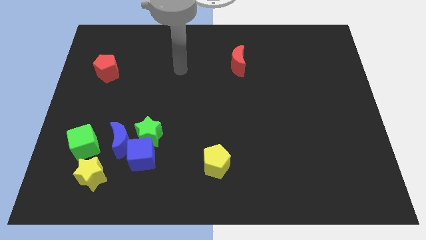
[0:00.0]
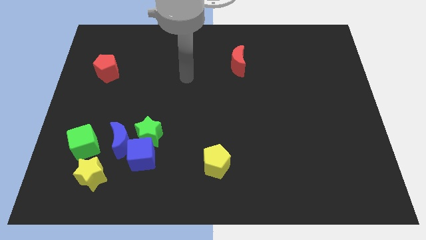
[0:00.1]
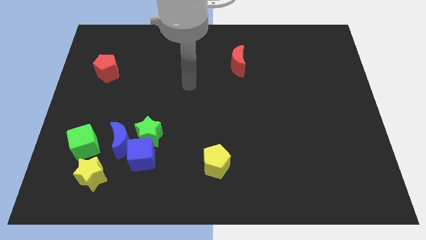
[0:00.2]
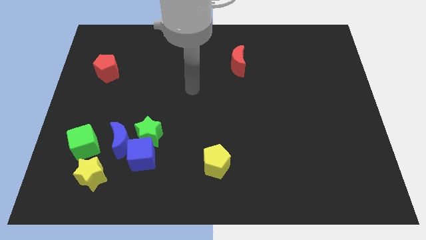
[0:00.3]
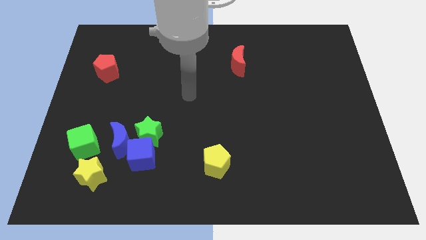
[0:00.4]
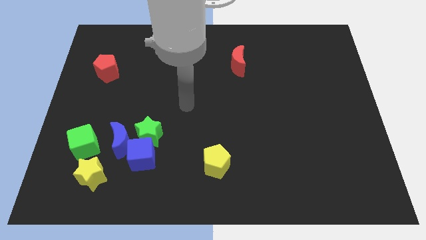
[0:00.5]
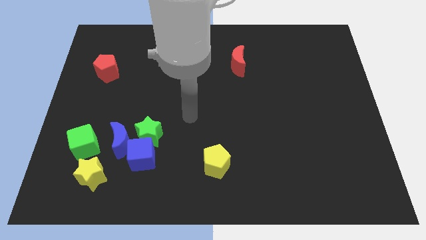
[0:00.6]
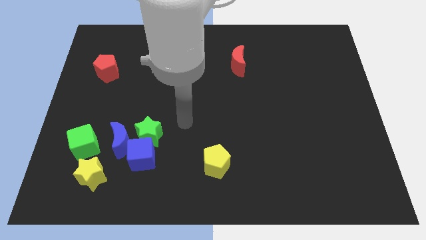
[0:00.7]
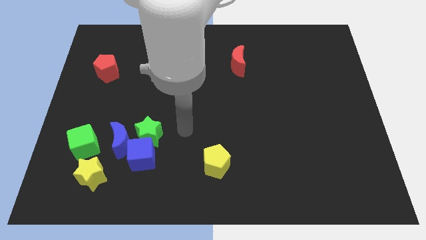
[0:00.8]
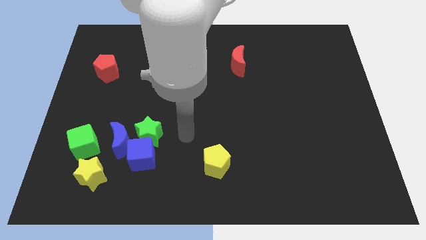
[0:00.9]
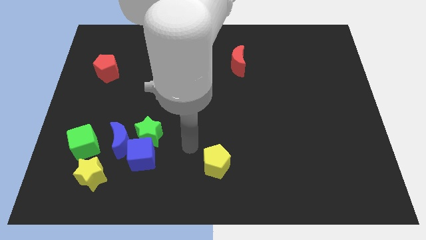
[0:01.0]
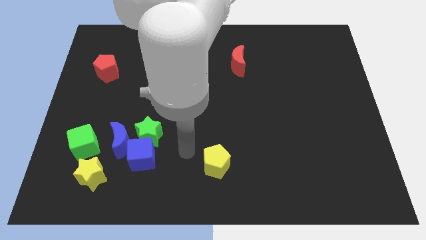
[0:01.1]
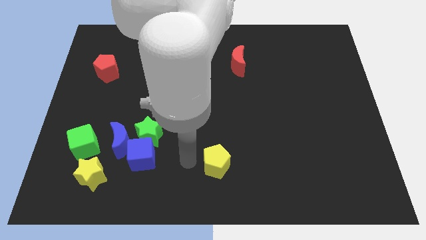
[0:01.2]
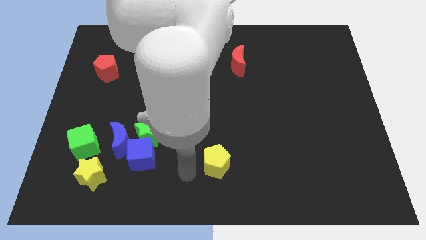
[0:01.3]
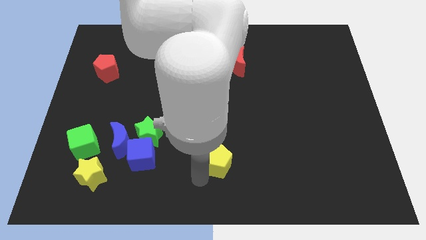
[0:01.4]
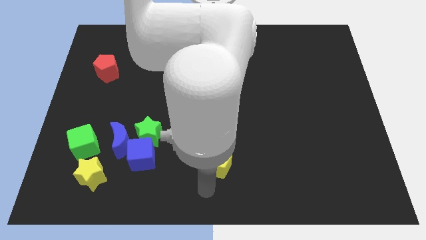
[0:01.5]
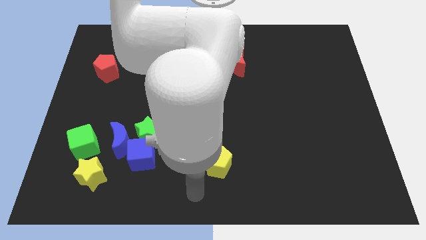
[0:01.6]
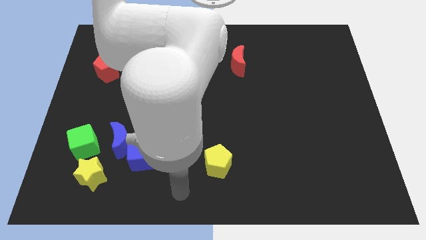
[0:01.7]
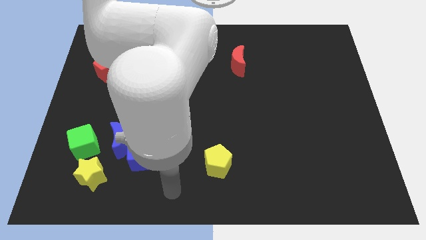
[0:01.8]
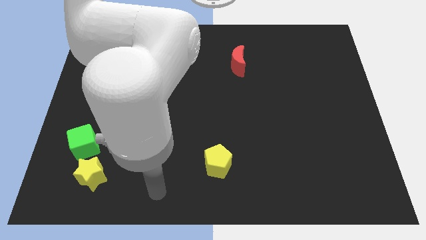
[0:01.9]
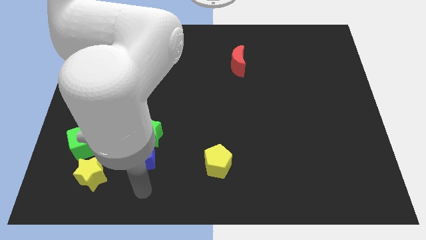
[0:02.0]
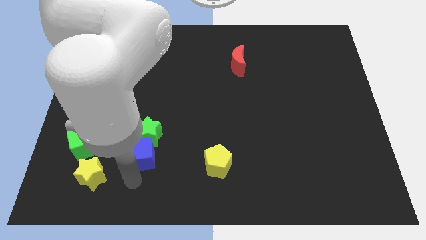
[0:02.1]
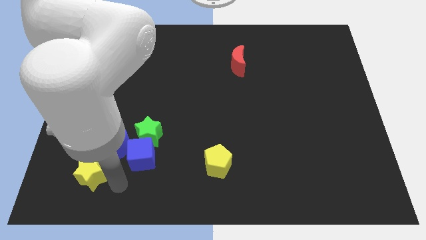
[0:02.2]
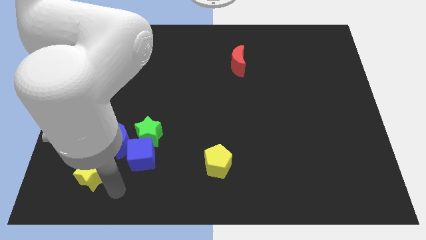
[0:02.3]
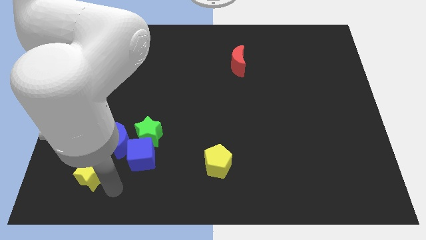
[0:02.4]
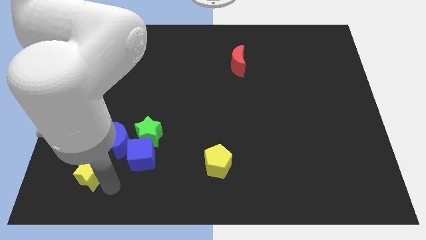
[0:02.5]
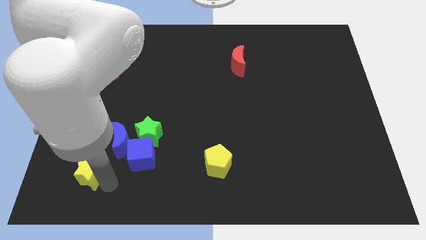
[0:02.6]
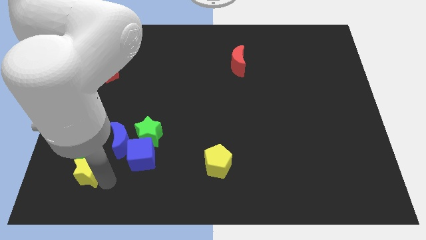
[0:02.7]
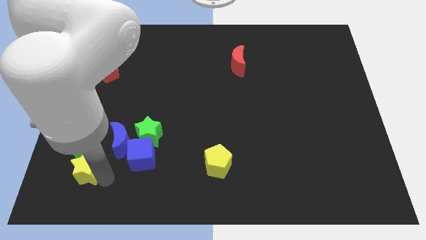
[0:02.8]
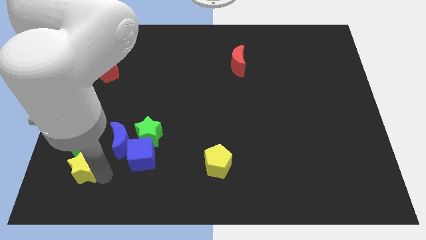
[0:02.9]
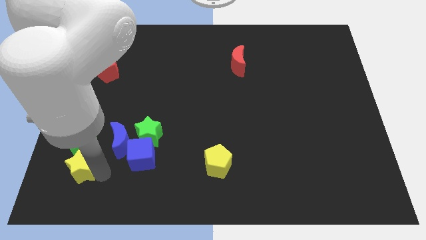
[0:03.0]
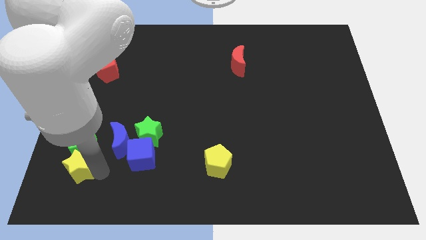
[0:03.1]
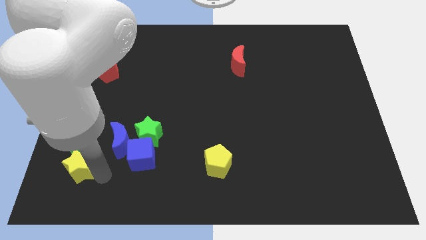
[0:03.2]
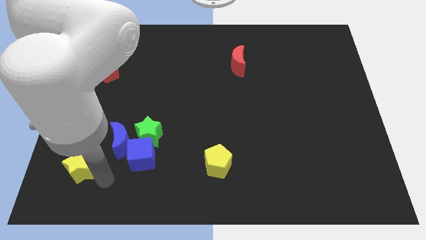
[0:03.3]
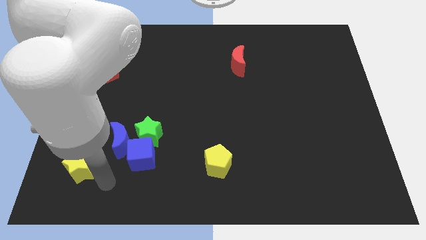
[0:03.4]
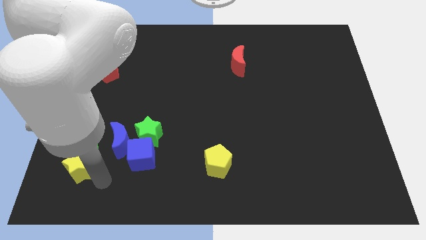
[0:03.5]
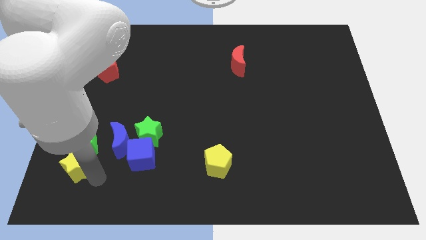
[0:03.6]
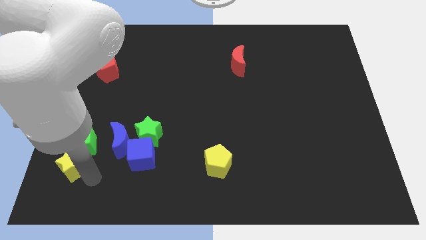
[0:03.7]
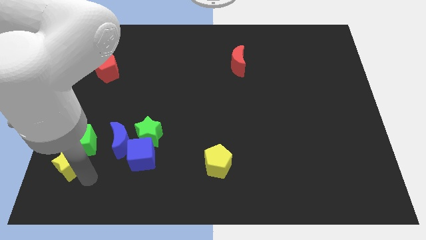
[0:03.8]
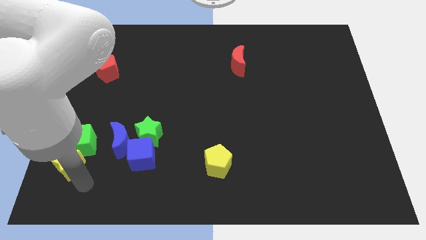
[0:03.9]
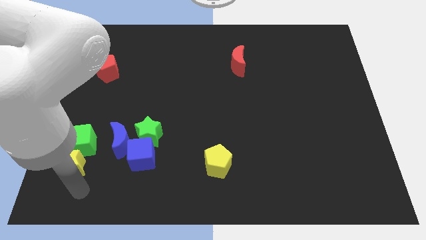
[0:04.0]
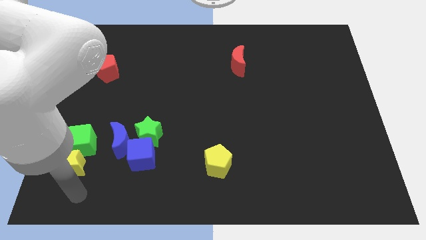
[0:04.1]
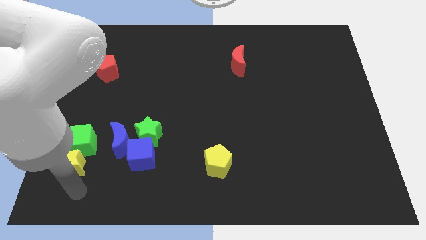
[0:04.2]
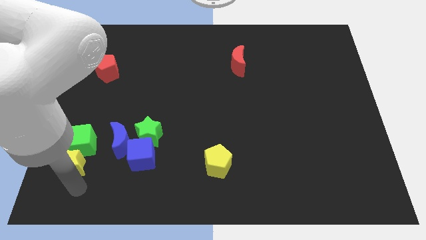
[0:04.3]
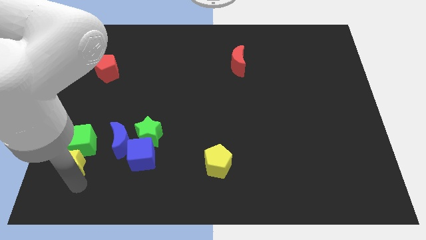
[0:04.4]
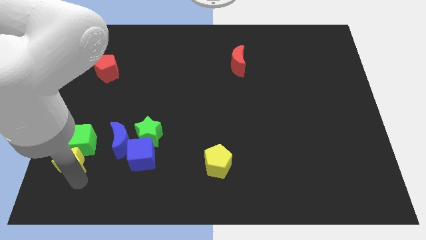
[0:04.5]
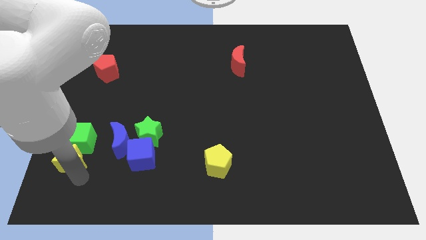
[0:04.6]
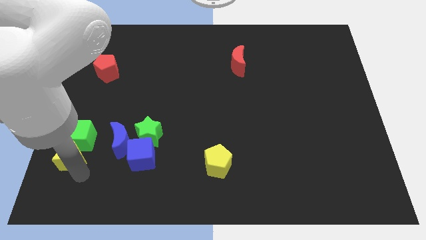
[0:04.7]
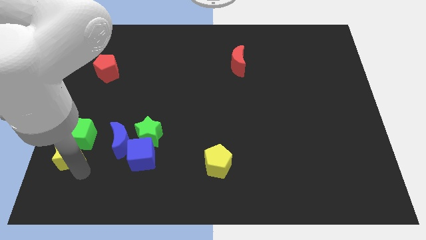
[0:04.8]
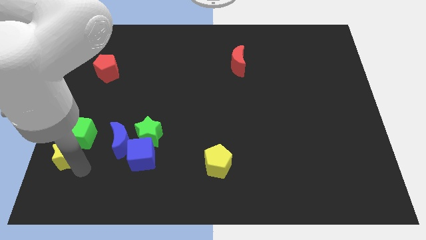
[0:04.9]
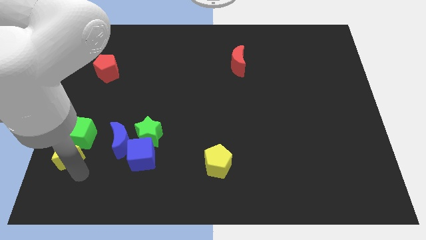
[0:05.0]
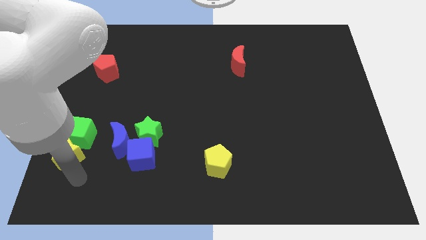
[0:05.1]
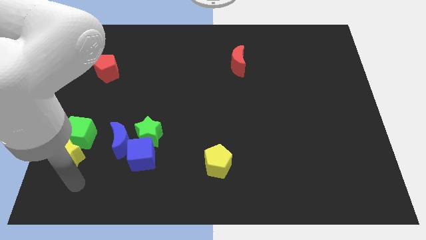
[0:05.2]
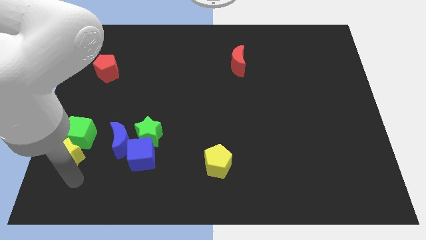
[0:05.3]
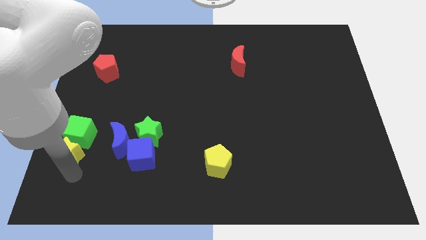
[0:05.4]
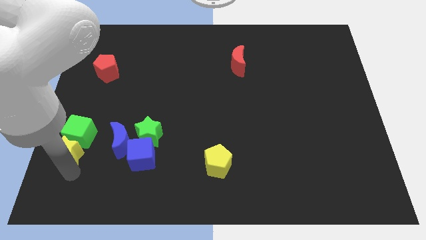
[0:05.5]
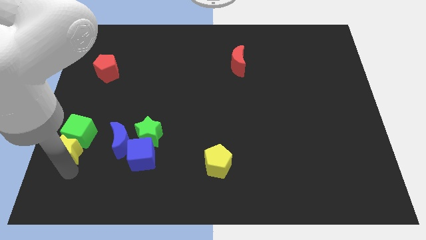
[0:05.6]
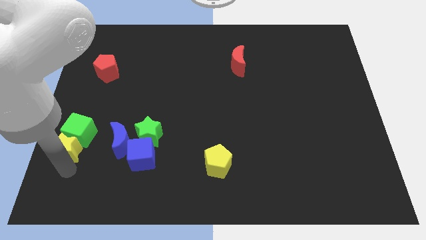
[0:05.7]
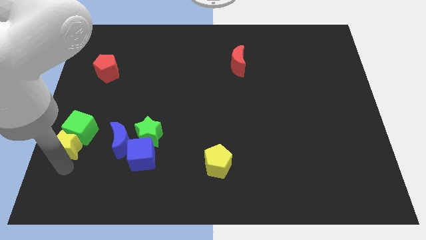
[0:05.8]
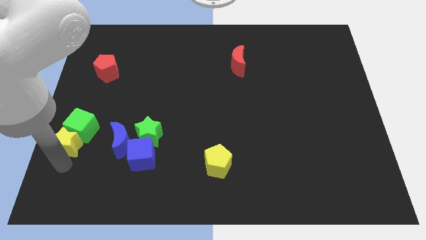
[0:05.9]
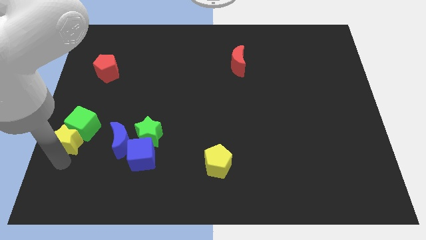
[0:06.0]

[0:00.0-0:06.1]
put the yellow star to the center left

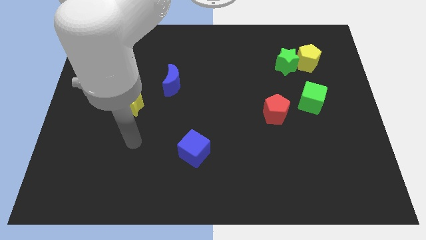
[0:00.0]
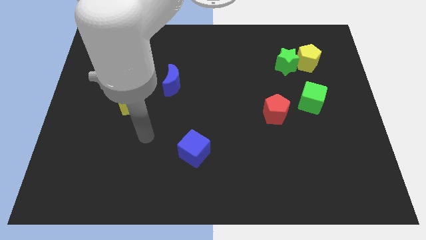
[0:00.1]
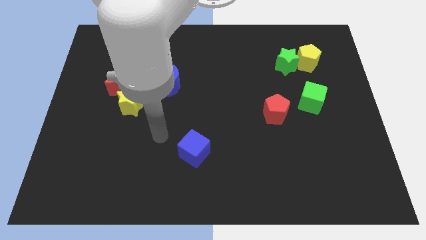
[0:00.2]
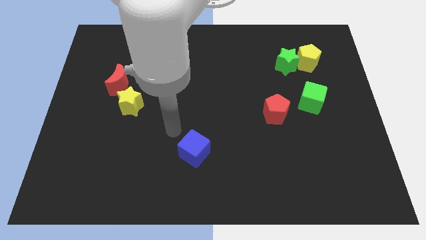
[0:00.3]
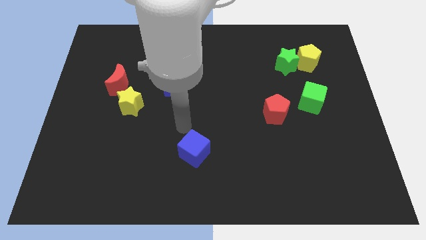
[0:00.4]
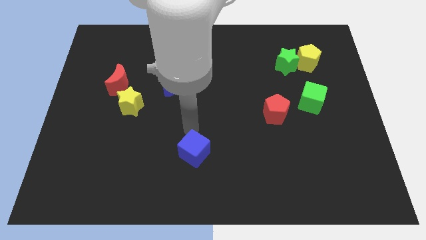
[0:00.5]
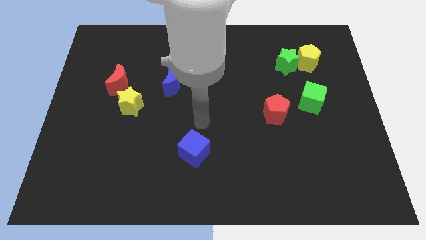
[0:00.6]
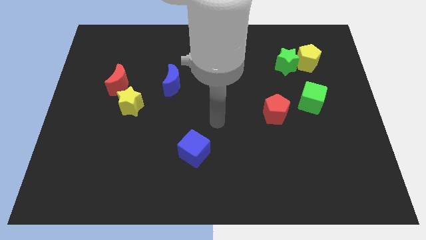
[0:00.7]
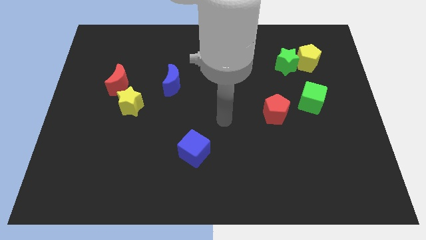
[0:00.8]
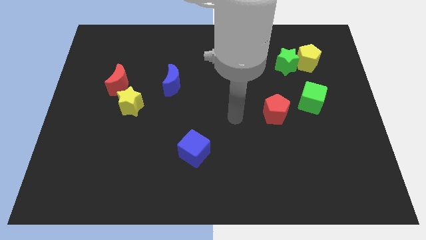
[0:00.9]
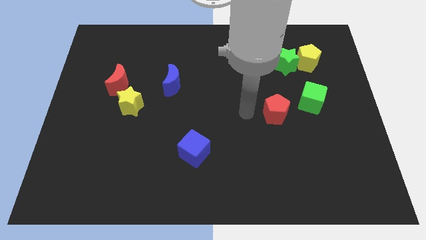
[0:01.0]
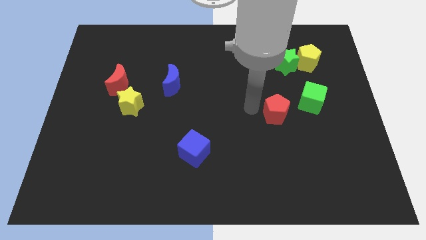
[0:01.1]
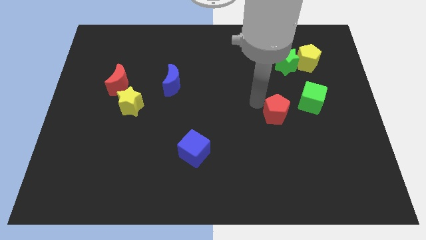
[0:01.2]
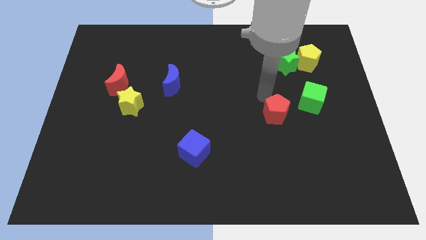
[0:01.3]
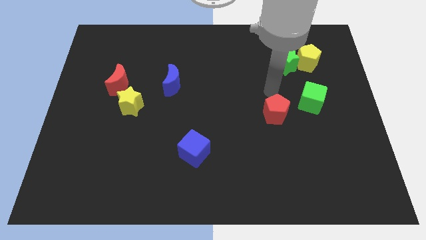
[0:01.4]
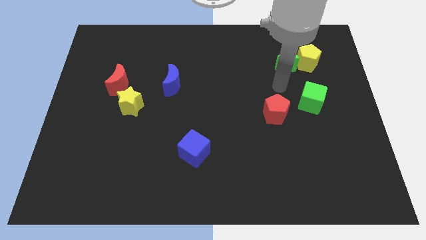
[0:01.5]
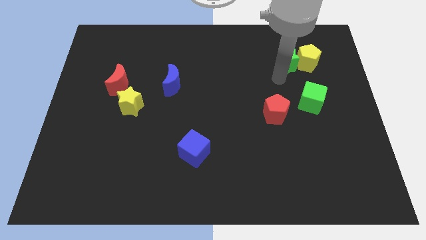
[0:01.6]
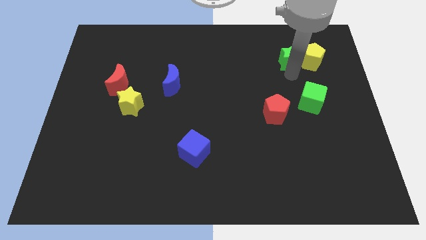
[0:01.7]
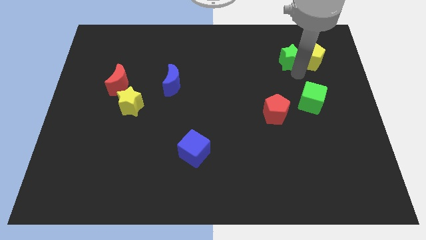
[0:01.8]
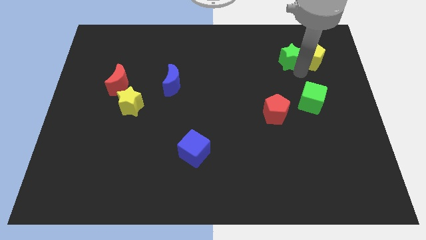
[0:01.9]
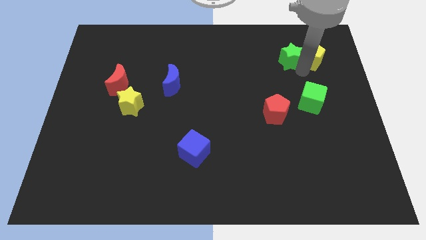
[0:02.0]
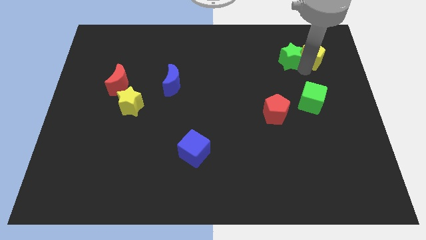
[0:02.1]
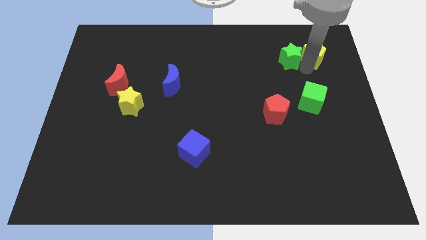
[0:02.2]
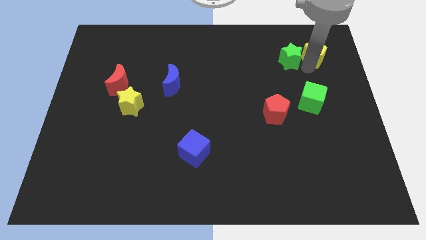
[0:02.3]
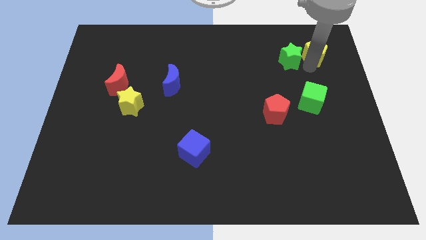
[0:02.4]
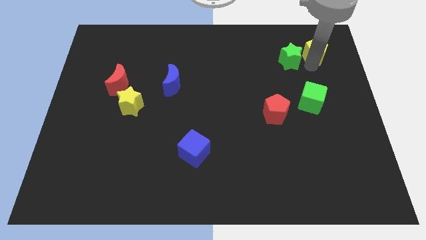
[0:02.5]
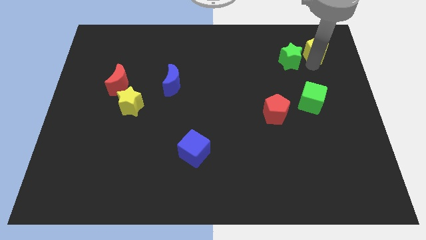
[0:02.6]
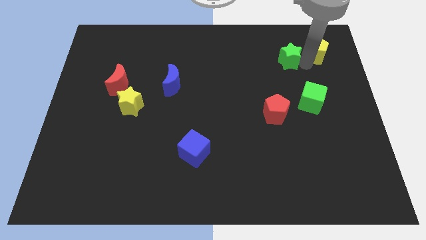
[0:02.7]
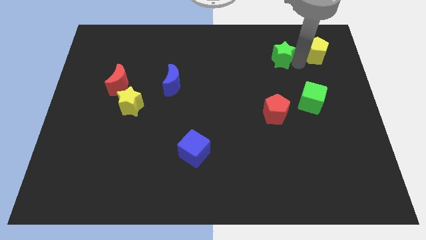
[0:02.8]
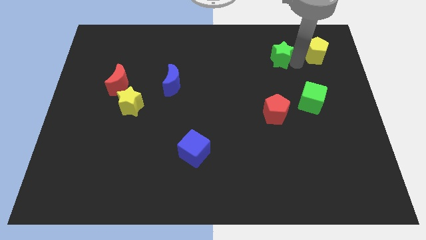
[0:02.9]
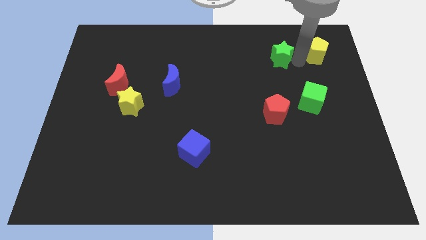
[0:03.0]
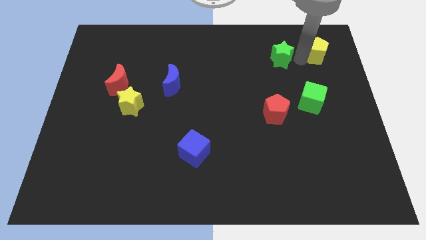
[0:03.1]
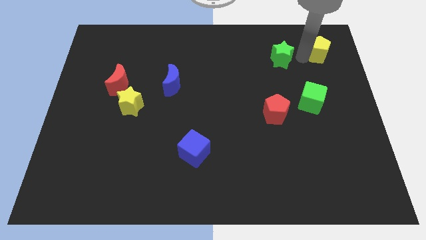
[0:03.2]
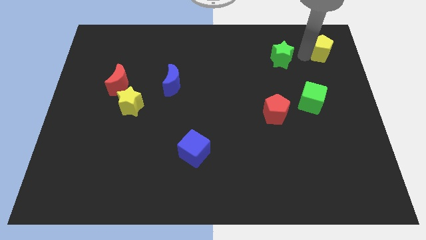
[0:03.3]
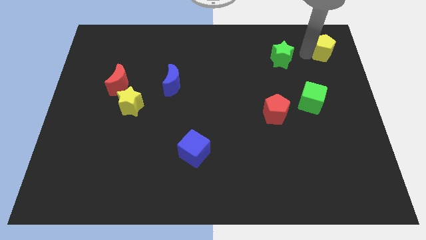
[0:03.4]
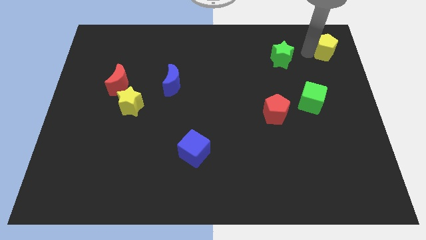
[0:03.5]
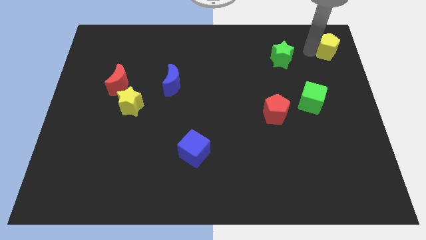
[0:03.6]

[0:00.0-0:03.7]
put the yellow pentagon to the top right of the board
